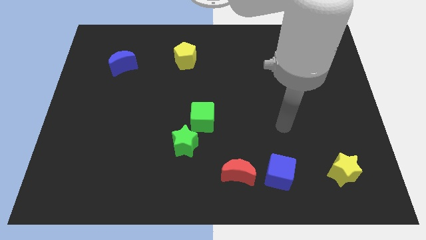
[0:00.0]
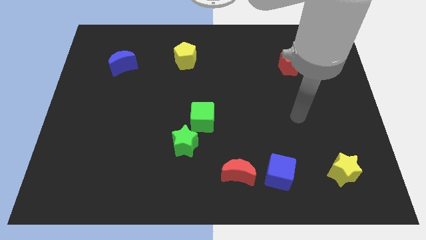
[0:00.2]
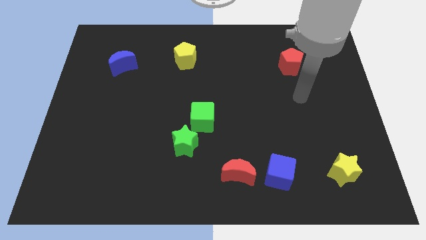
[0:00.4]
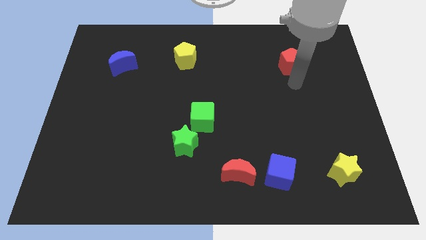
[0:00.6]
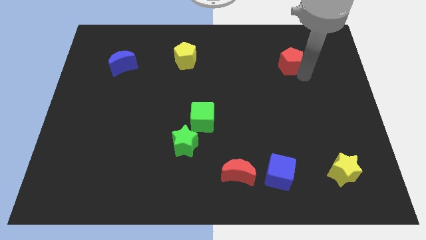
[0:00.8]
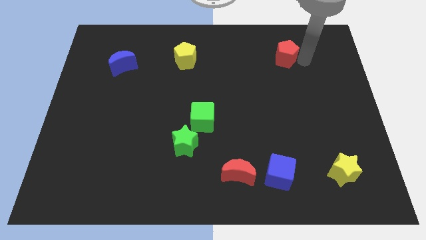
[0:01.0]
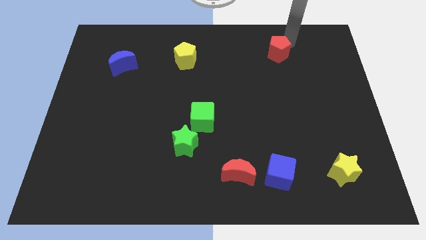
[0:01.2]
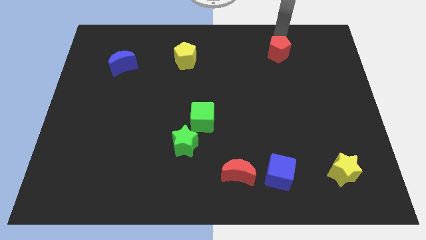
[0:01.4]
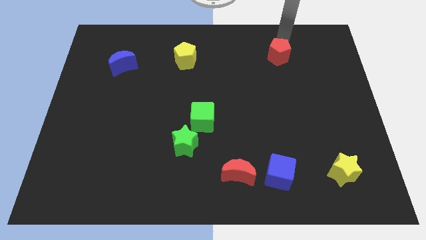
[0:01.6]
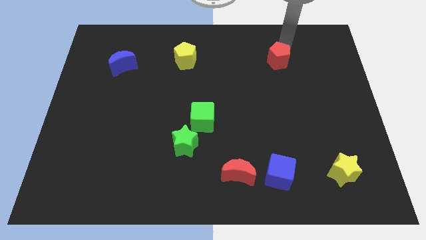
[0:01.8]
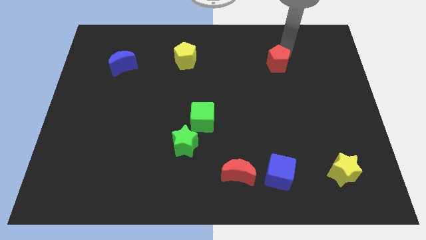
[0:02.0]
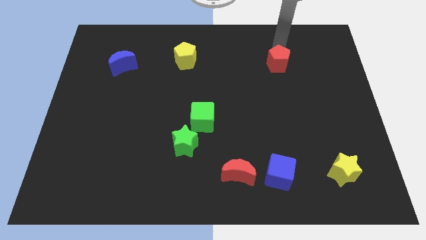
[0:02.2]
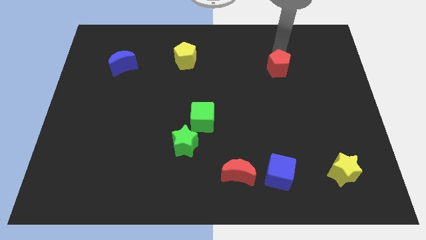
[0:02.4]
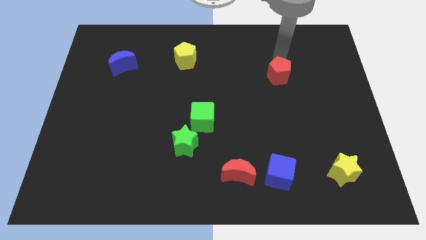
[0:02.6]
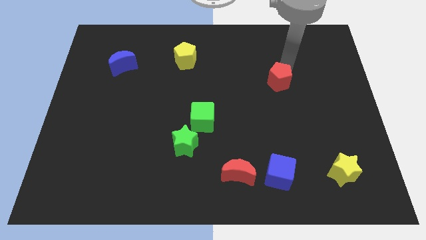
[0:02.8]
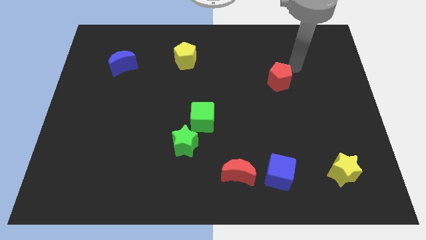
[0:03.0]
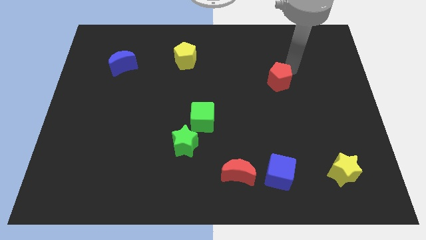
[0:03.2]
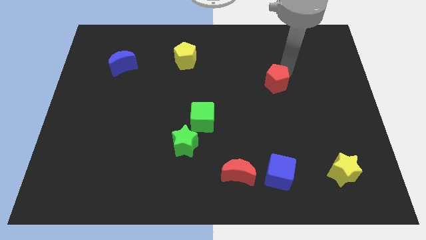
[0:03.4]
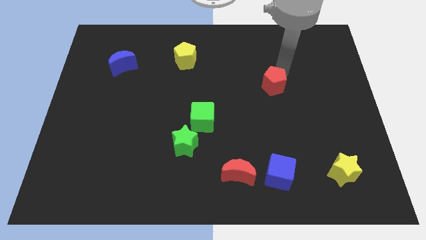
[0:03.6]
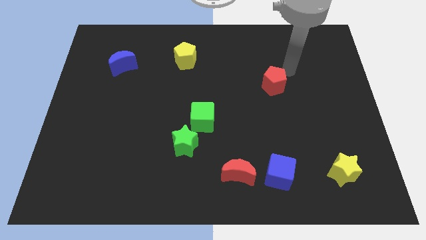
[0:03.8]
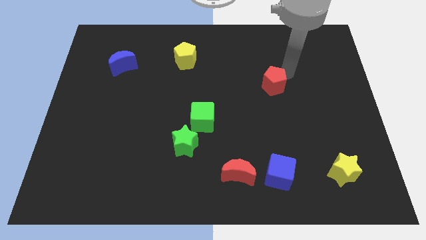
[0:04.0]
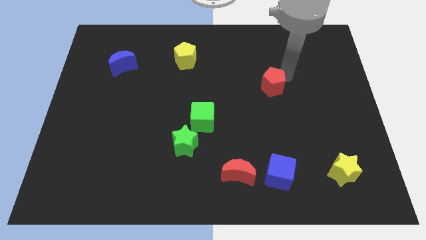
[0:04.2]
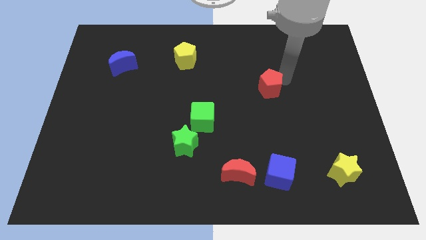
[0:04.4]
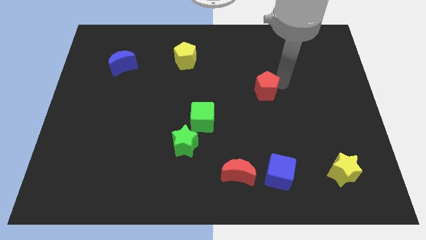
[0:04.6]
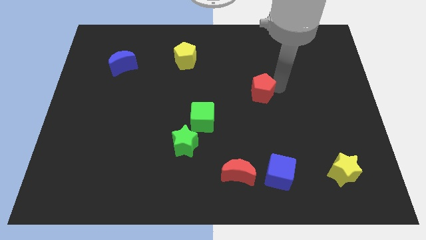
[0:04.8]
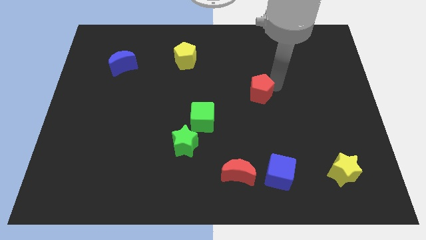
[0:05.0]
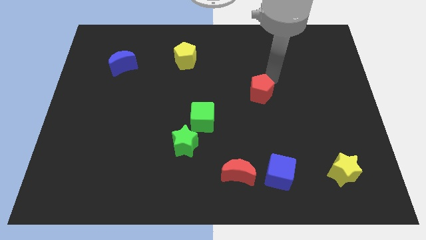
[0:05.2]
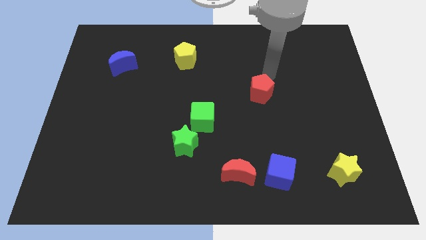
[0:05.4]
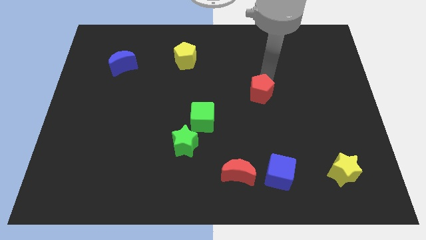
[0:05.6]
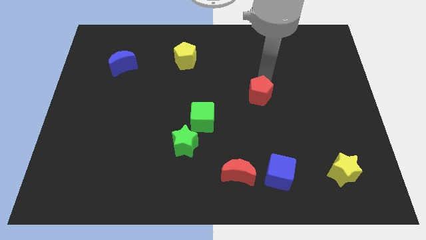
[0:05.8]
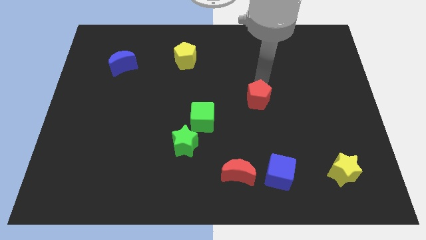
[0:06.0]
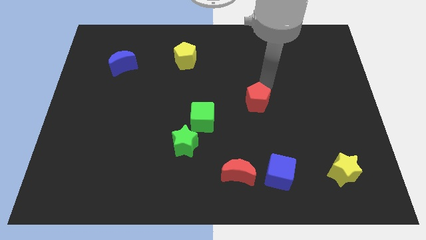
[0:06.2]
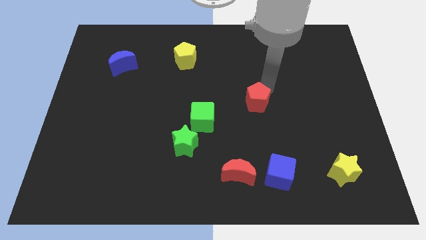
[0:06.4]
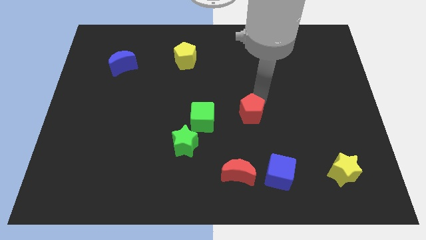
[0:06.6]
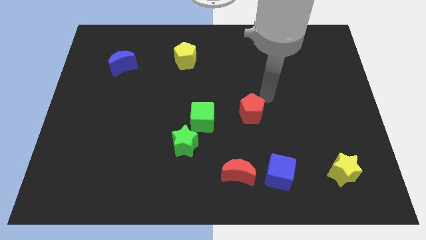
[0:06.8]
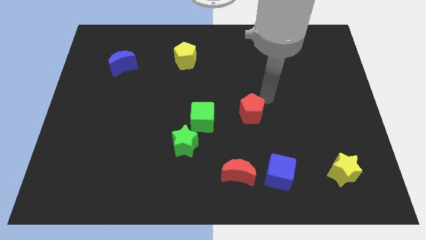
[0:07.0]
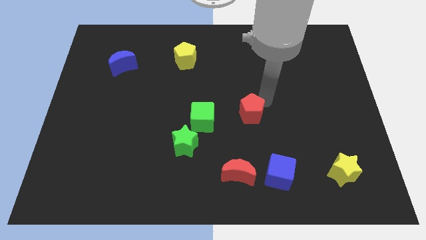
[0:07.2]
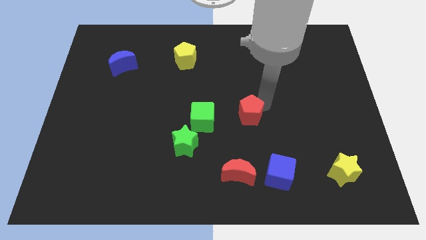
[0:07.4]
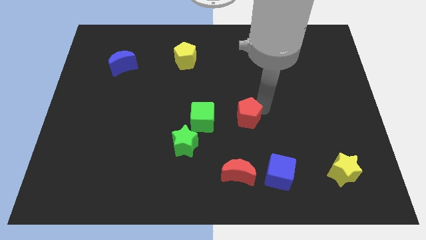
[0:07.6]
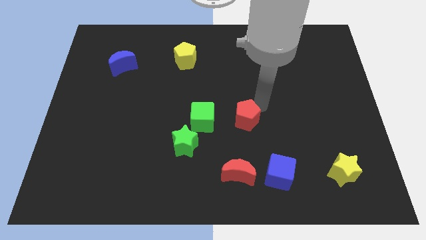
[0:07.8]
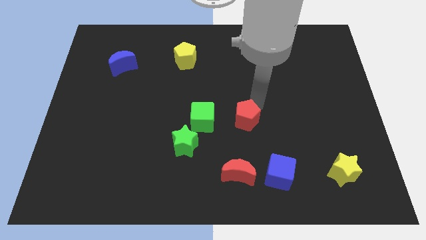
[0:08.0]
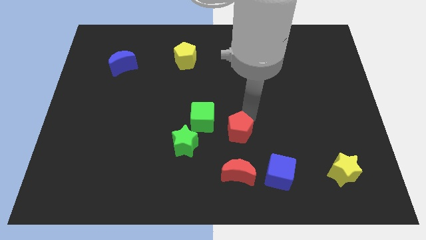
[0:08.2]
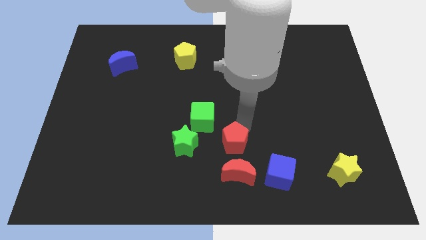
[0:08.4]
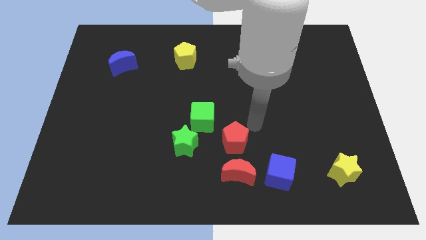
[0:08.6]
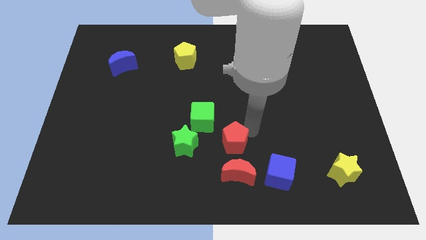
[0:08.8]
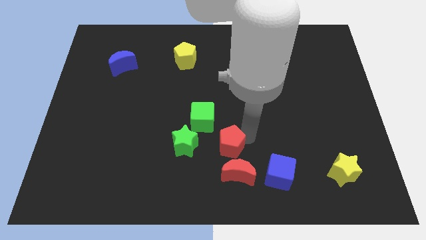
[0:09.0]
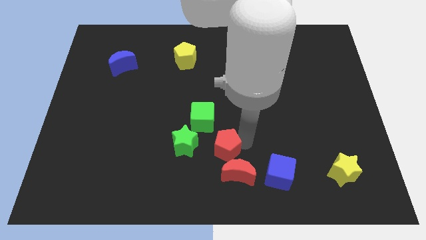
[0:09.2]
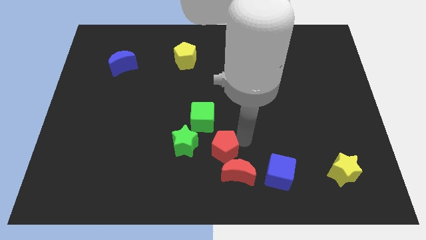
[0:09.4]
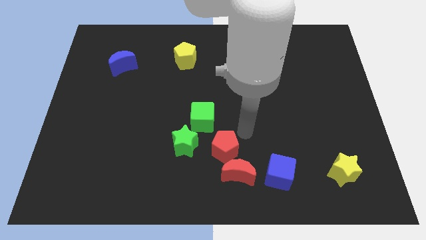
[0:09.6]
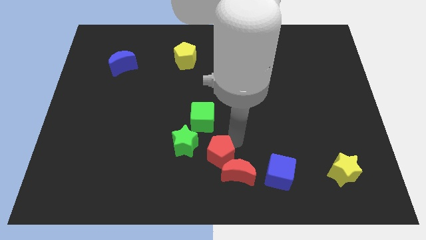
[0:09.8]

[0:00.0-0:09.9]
push the red pentagon to the bottom right side of the green star

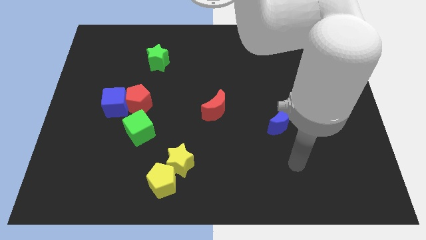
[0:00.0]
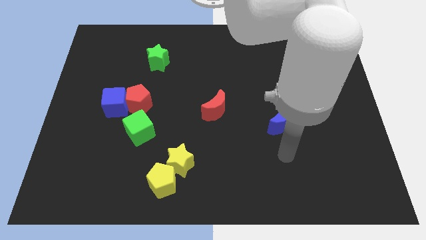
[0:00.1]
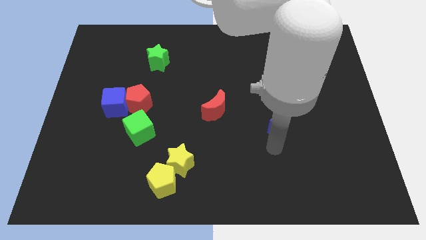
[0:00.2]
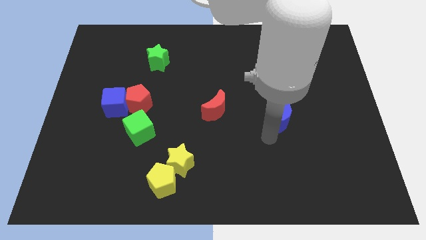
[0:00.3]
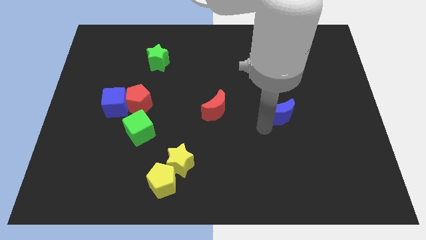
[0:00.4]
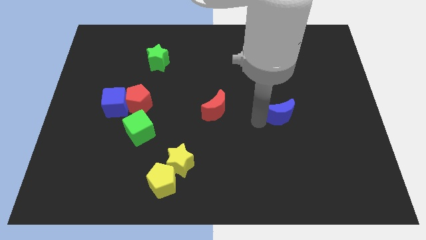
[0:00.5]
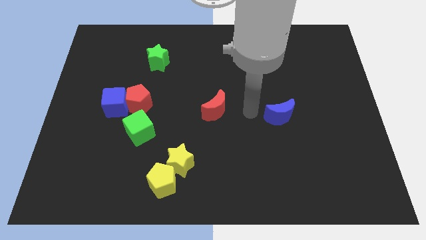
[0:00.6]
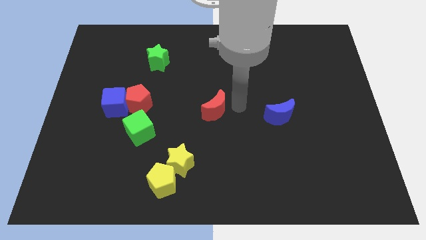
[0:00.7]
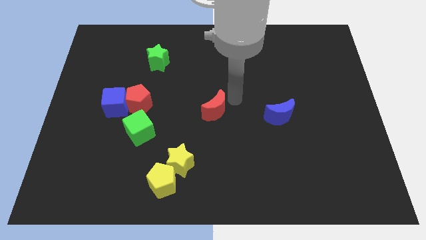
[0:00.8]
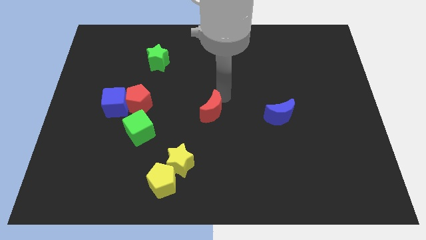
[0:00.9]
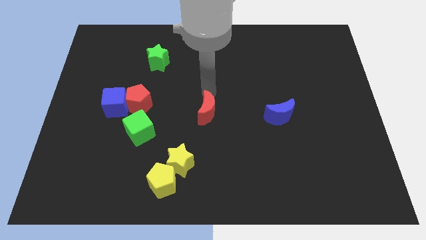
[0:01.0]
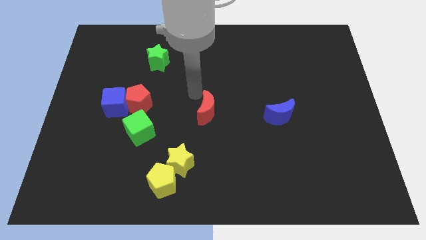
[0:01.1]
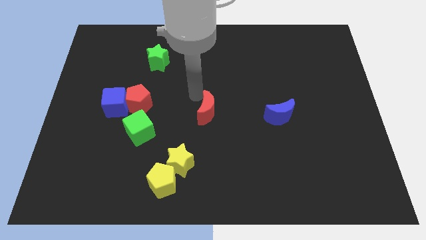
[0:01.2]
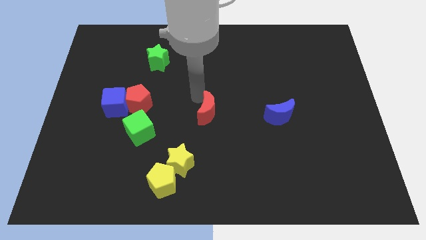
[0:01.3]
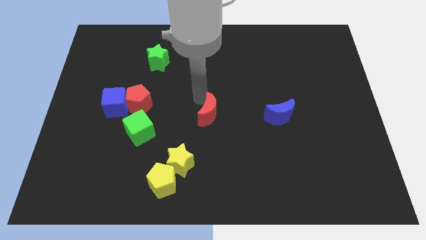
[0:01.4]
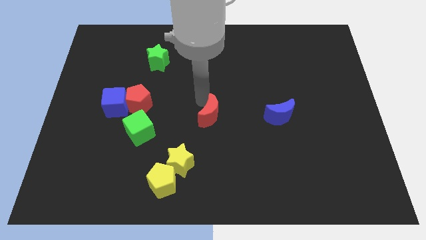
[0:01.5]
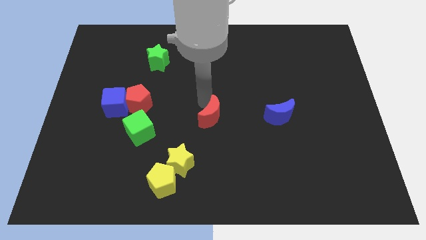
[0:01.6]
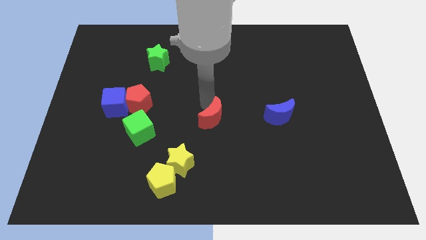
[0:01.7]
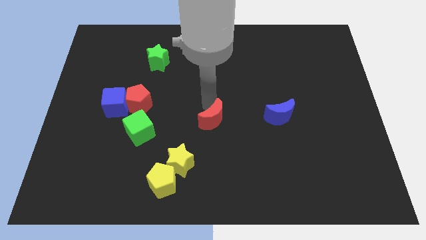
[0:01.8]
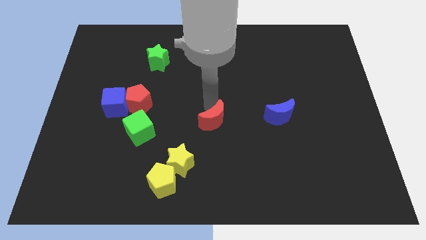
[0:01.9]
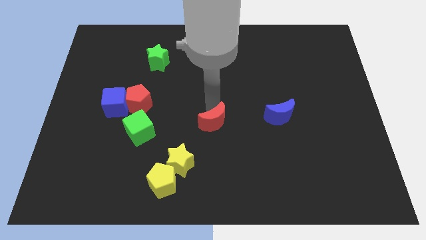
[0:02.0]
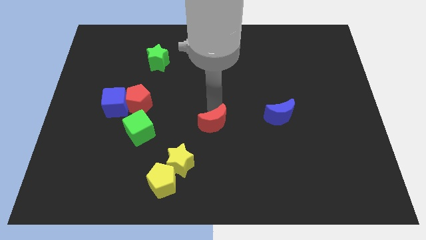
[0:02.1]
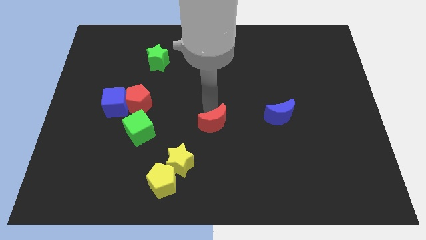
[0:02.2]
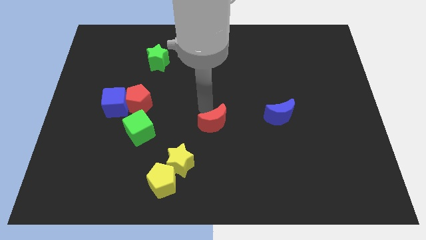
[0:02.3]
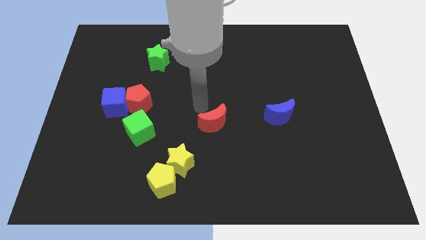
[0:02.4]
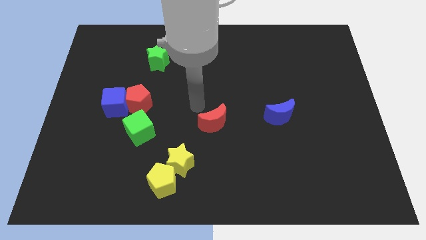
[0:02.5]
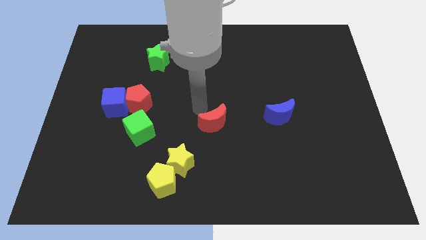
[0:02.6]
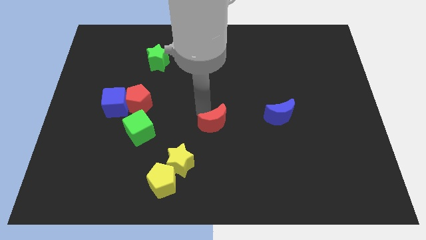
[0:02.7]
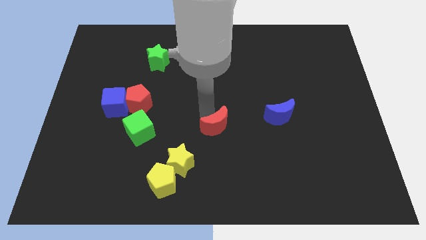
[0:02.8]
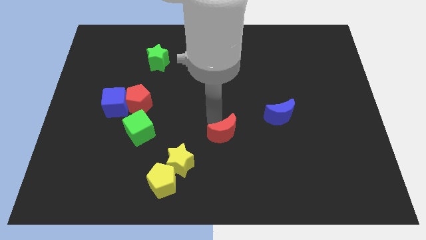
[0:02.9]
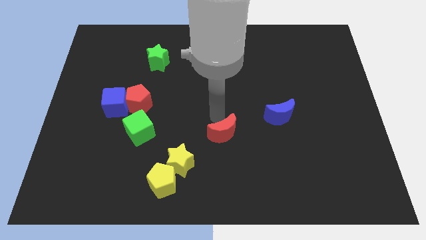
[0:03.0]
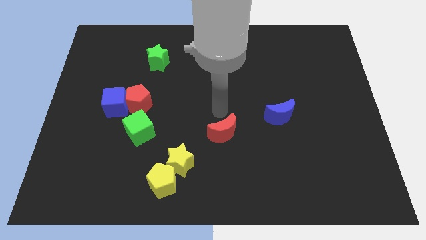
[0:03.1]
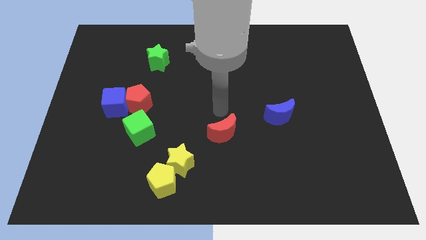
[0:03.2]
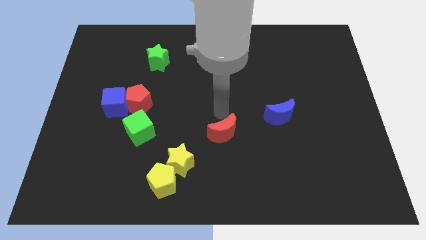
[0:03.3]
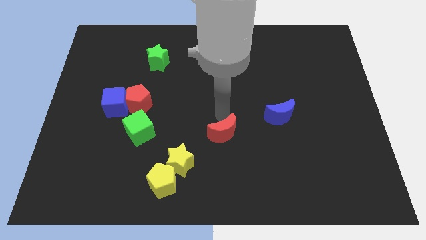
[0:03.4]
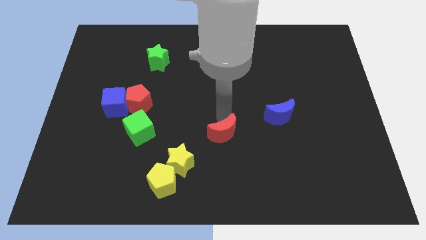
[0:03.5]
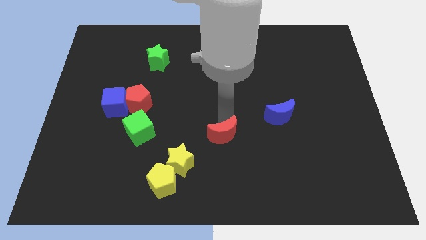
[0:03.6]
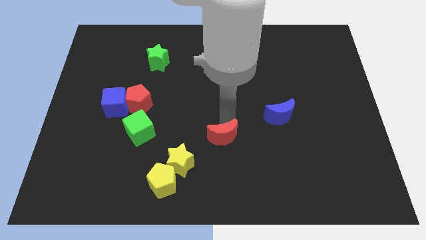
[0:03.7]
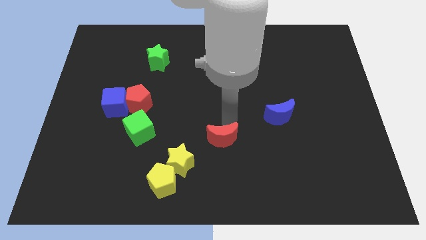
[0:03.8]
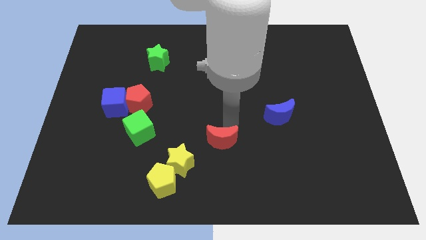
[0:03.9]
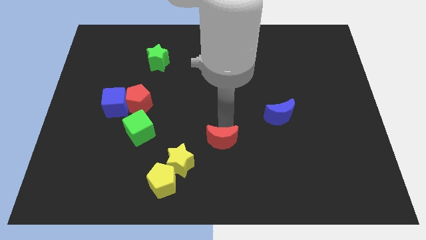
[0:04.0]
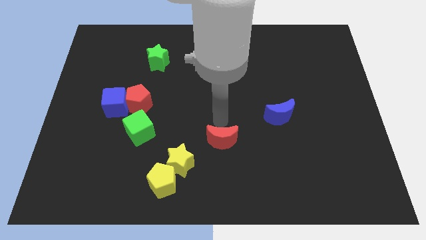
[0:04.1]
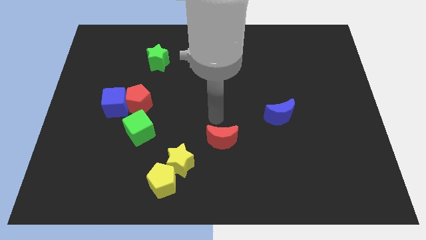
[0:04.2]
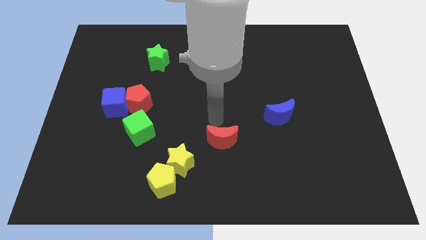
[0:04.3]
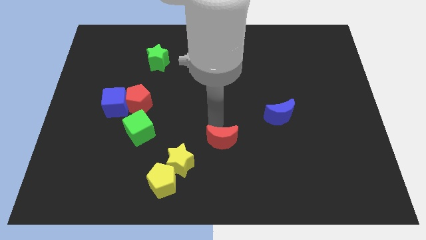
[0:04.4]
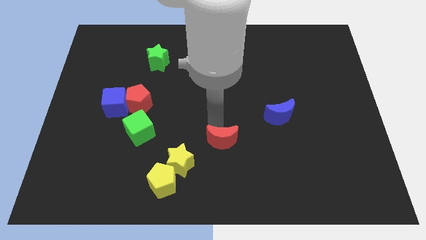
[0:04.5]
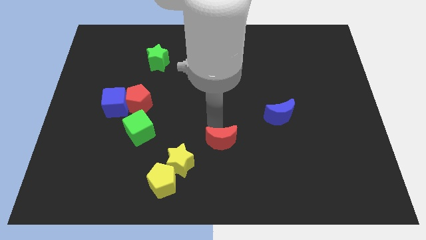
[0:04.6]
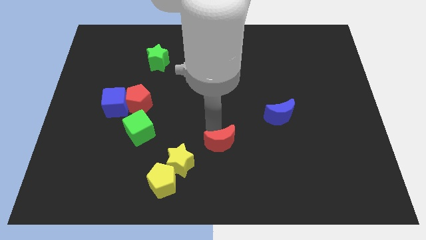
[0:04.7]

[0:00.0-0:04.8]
push the red moon to the right of the yellow star
